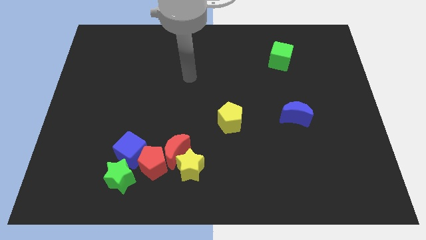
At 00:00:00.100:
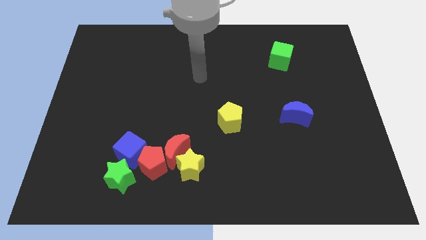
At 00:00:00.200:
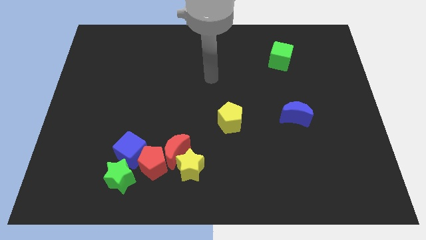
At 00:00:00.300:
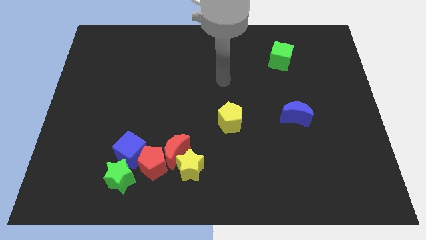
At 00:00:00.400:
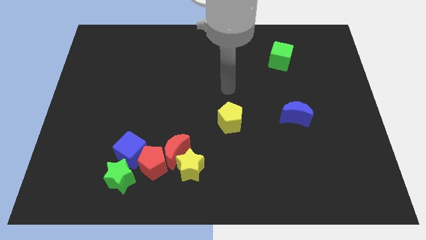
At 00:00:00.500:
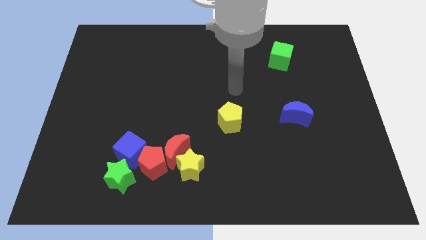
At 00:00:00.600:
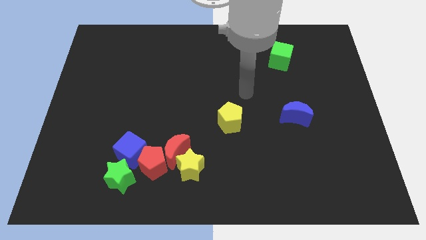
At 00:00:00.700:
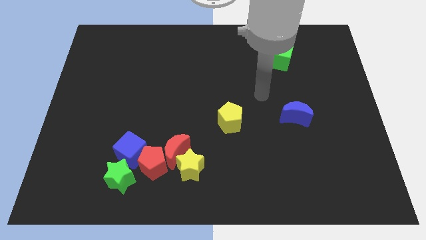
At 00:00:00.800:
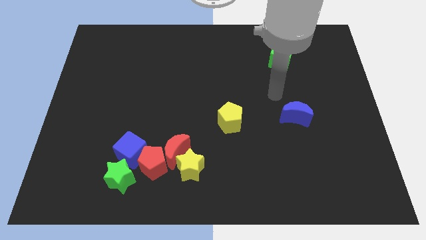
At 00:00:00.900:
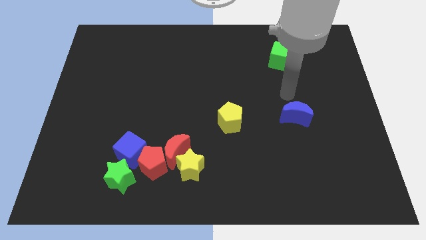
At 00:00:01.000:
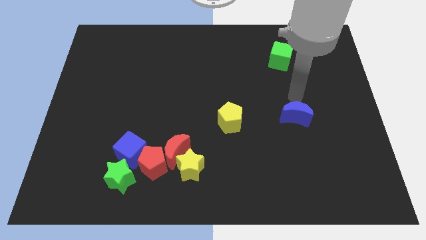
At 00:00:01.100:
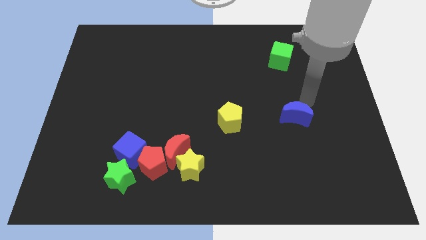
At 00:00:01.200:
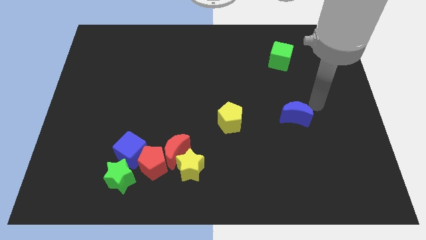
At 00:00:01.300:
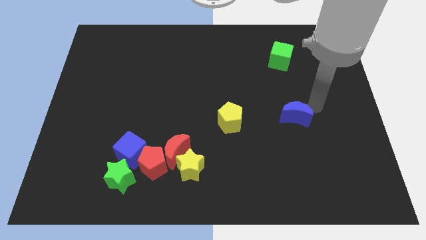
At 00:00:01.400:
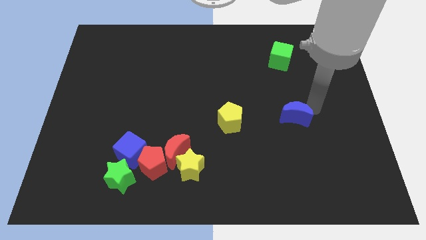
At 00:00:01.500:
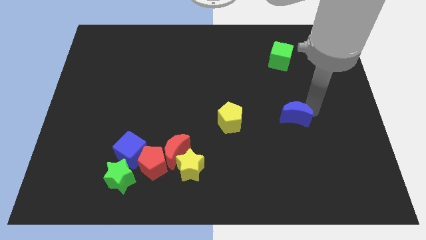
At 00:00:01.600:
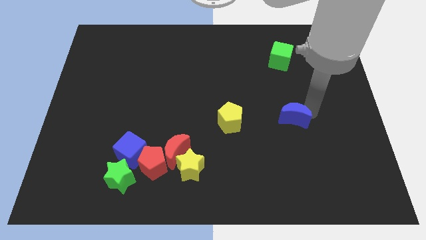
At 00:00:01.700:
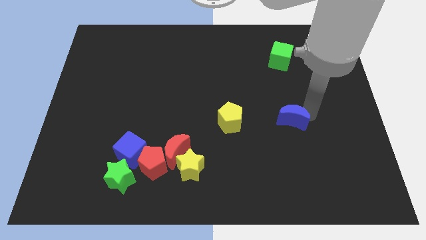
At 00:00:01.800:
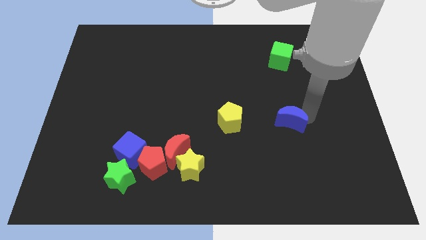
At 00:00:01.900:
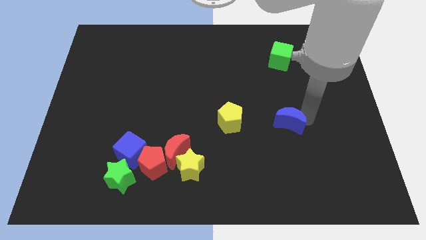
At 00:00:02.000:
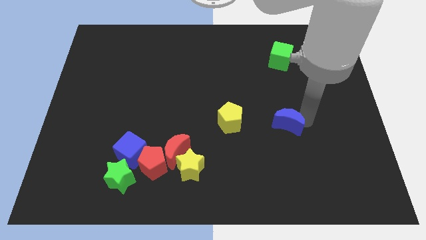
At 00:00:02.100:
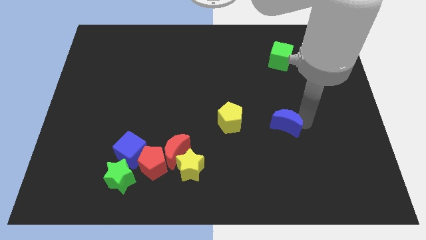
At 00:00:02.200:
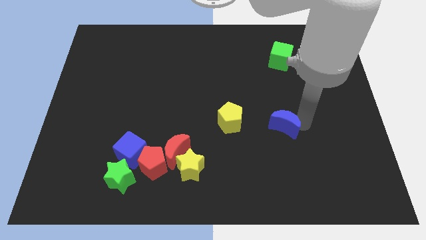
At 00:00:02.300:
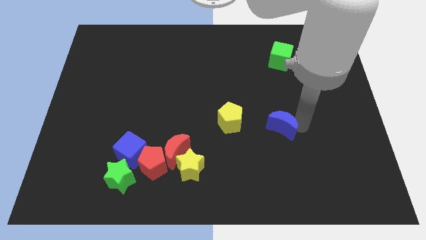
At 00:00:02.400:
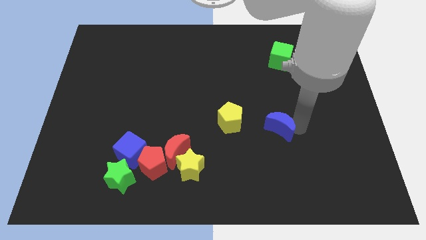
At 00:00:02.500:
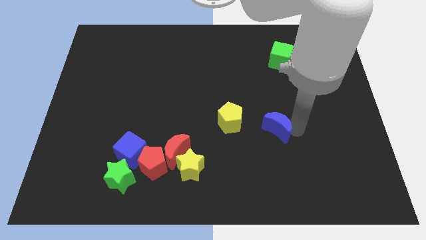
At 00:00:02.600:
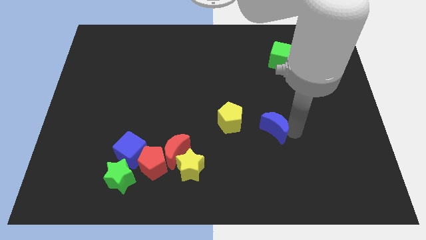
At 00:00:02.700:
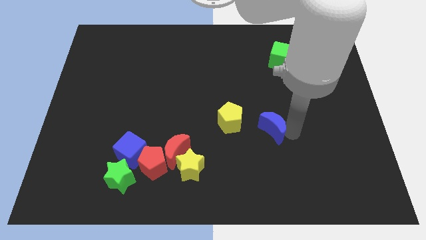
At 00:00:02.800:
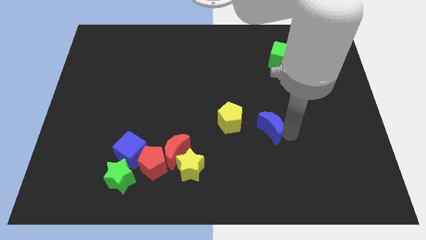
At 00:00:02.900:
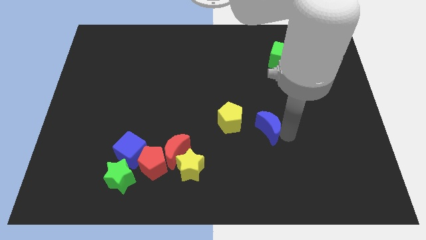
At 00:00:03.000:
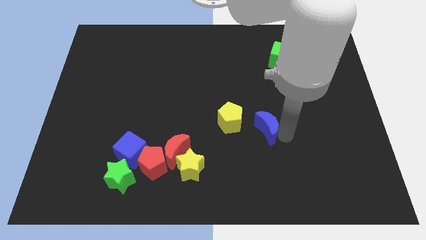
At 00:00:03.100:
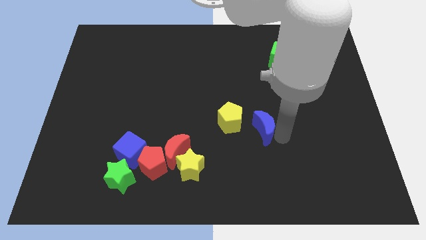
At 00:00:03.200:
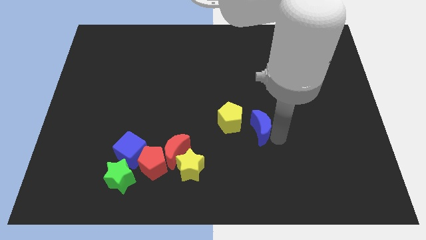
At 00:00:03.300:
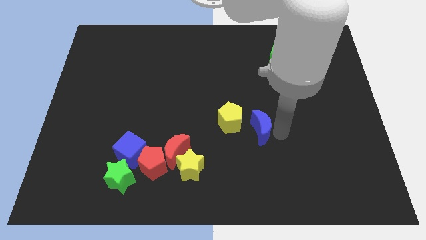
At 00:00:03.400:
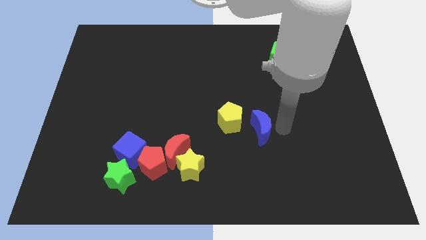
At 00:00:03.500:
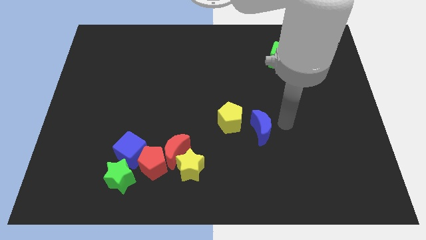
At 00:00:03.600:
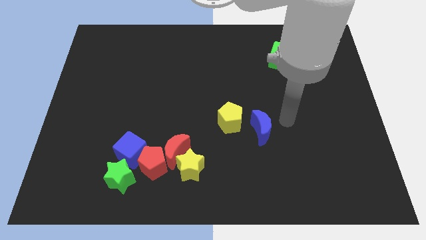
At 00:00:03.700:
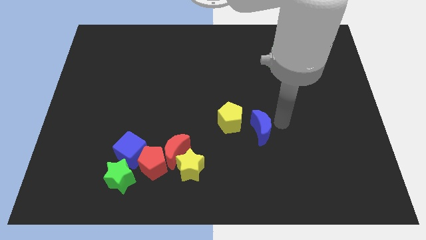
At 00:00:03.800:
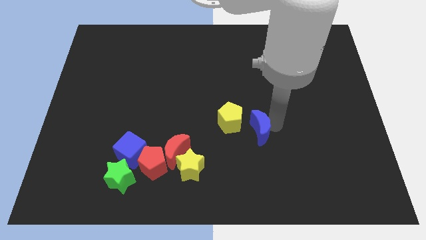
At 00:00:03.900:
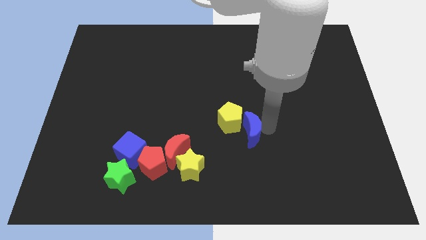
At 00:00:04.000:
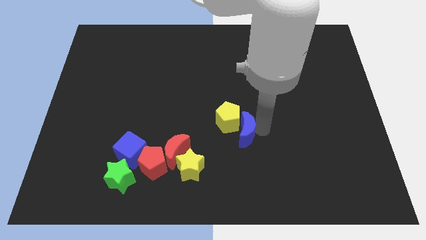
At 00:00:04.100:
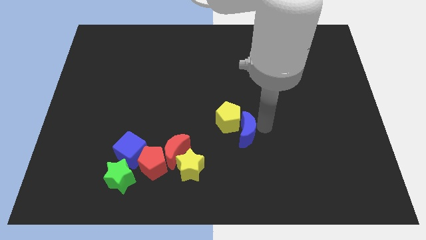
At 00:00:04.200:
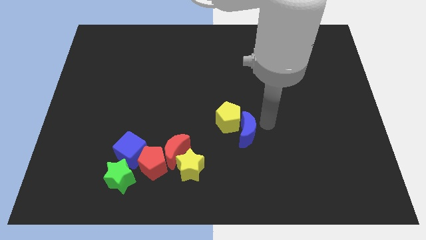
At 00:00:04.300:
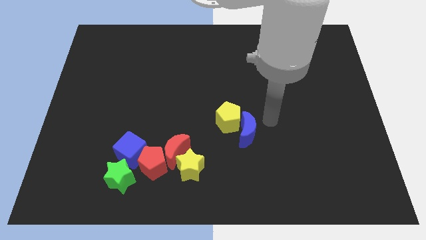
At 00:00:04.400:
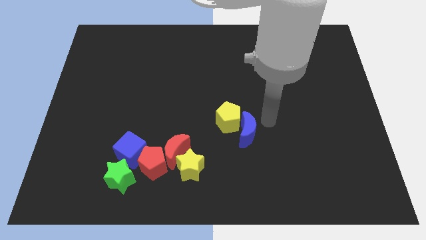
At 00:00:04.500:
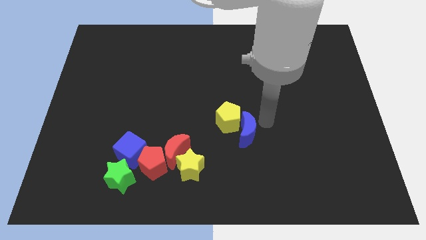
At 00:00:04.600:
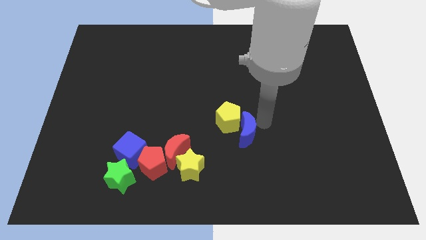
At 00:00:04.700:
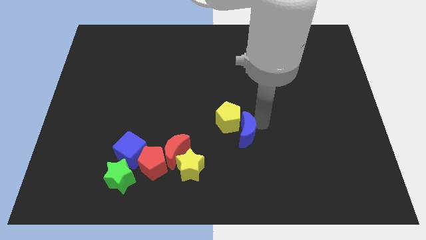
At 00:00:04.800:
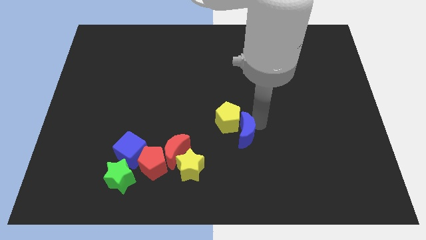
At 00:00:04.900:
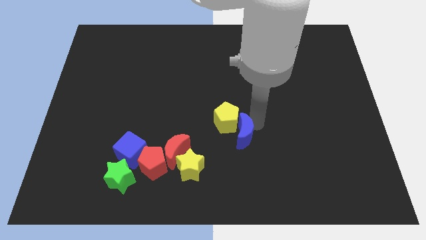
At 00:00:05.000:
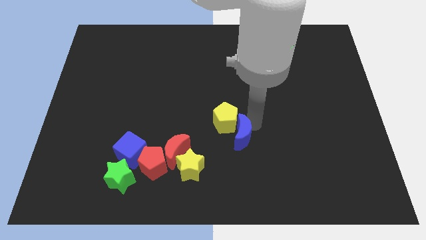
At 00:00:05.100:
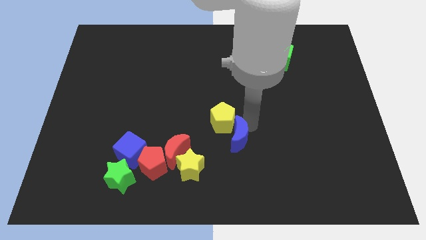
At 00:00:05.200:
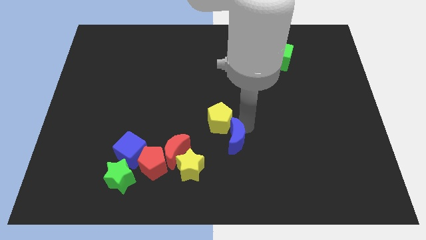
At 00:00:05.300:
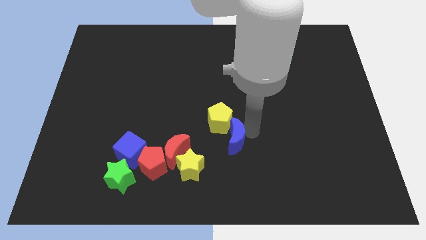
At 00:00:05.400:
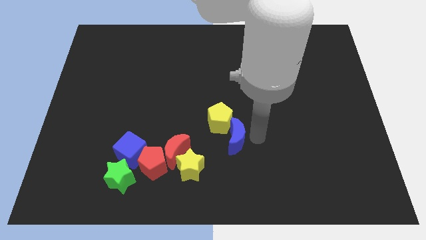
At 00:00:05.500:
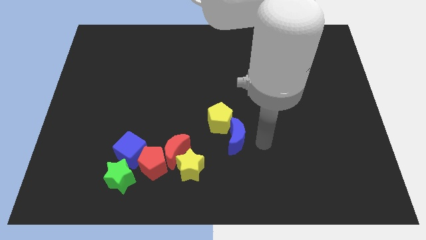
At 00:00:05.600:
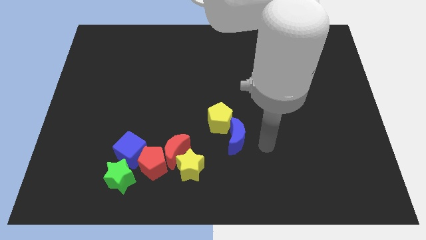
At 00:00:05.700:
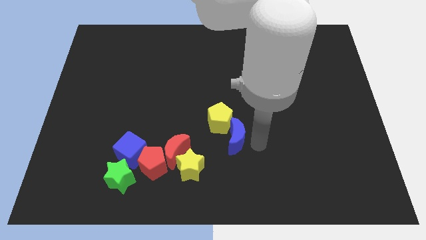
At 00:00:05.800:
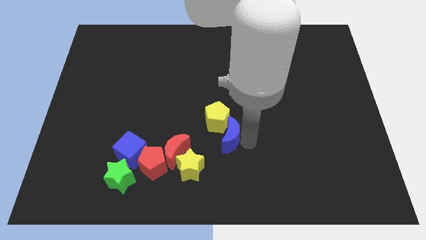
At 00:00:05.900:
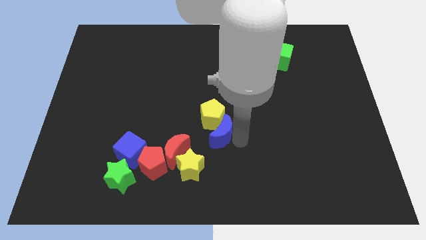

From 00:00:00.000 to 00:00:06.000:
put the blue moon to the top right of the red moon

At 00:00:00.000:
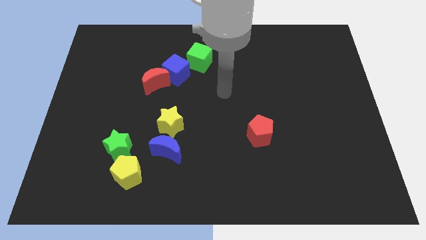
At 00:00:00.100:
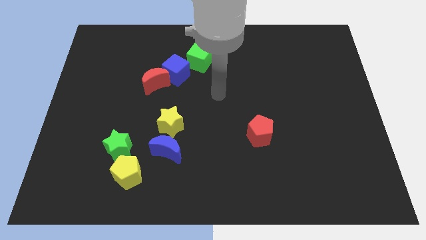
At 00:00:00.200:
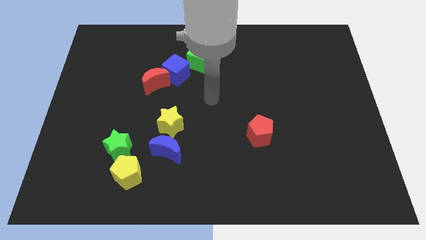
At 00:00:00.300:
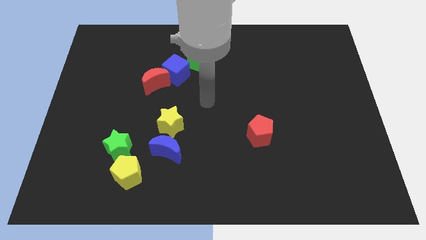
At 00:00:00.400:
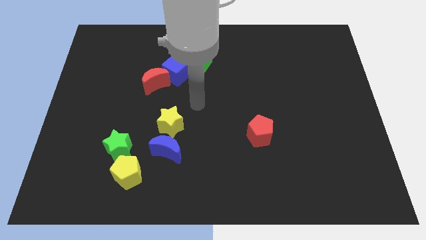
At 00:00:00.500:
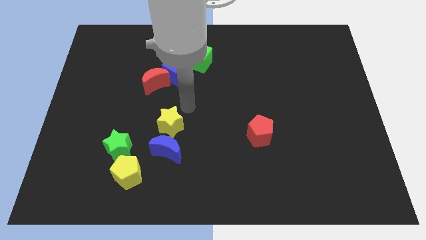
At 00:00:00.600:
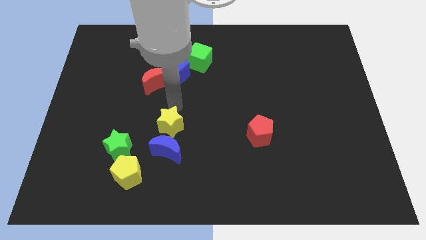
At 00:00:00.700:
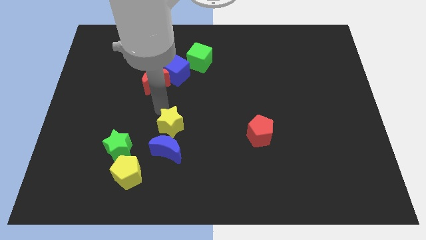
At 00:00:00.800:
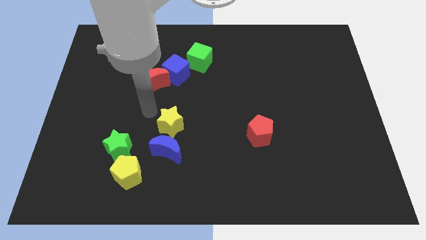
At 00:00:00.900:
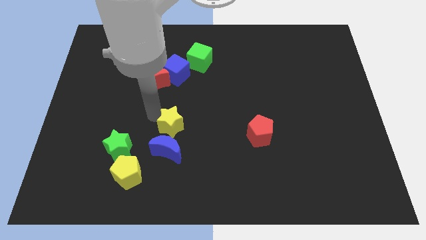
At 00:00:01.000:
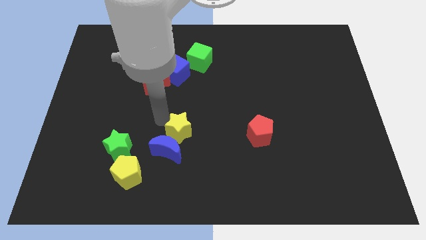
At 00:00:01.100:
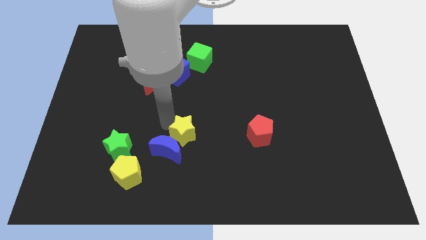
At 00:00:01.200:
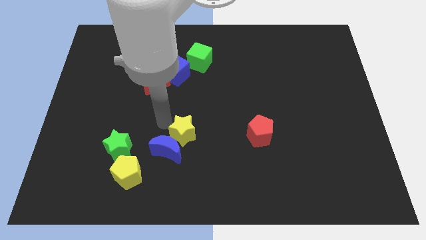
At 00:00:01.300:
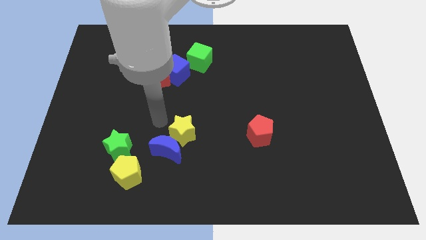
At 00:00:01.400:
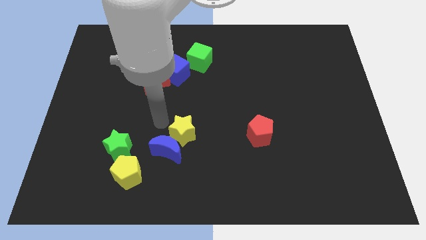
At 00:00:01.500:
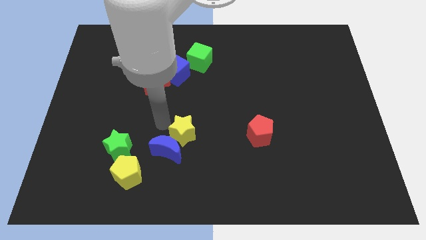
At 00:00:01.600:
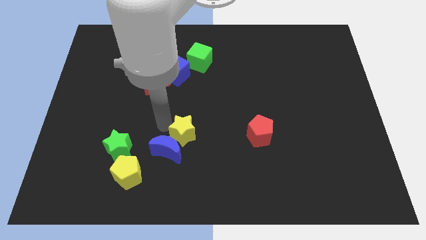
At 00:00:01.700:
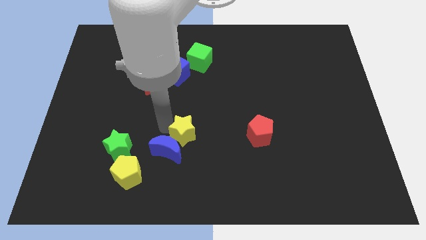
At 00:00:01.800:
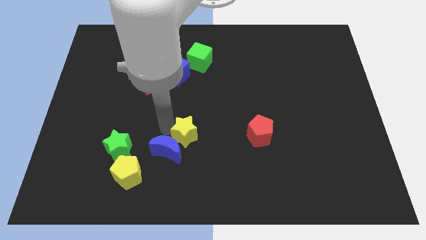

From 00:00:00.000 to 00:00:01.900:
put the yellow star just right of the blue moon
